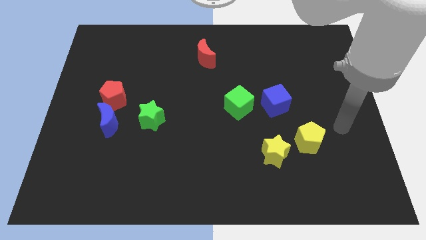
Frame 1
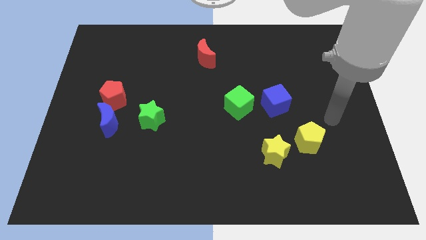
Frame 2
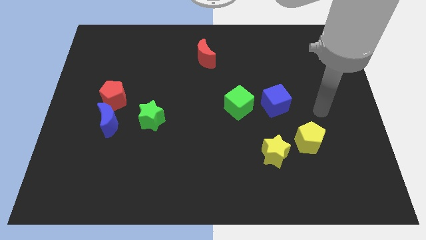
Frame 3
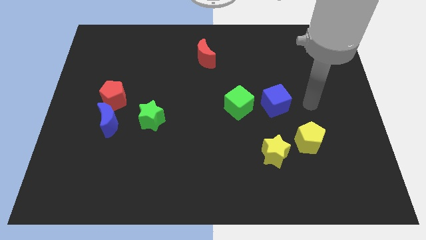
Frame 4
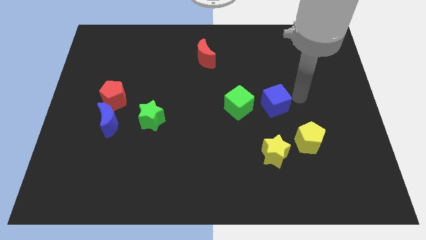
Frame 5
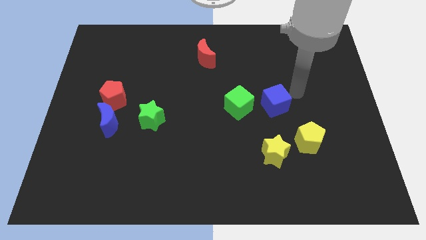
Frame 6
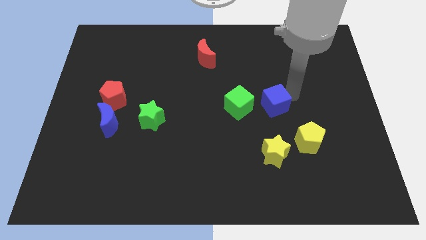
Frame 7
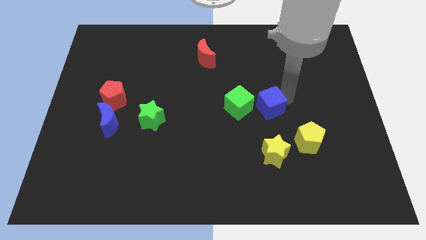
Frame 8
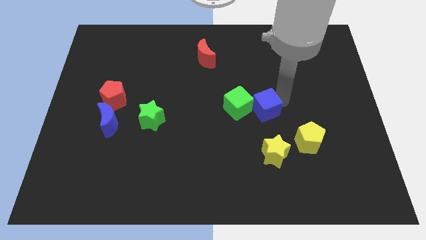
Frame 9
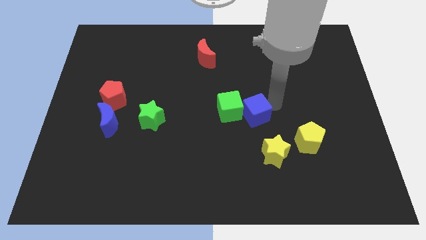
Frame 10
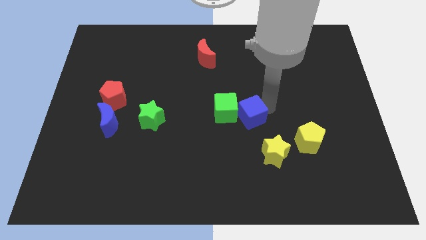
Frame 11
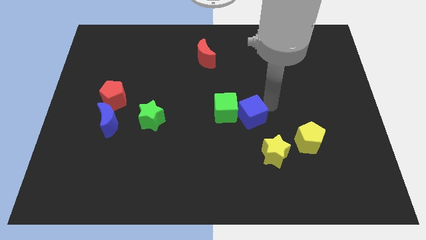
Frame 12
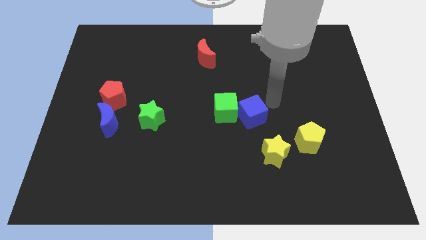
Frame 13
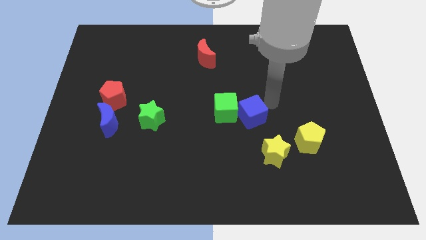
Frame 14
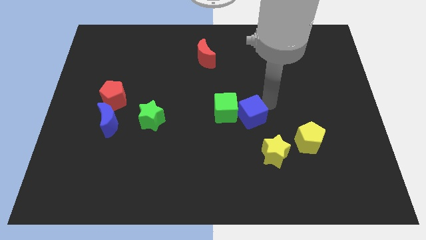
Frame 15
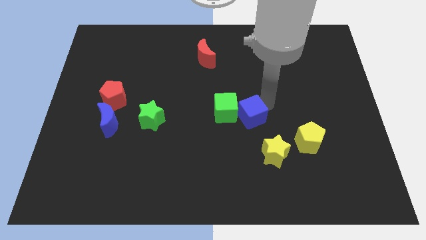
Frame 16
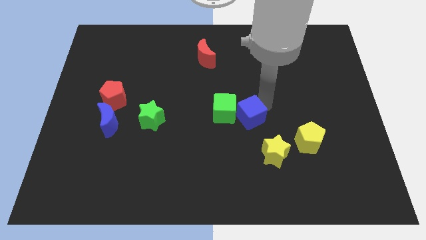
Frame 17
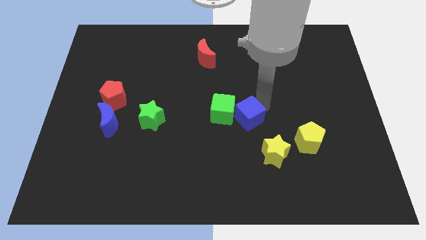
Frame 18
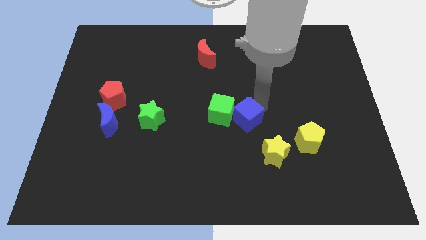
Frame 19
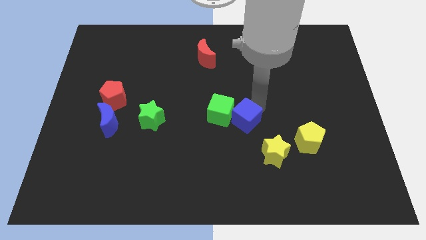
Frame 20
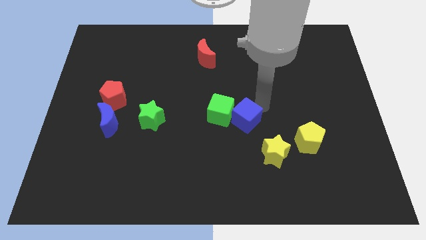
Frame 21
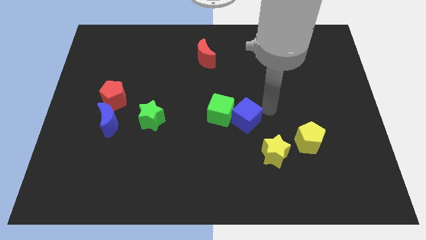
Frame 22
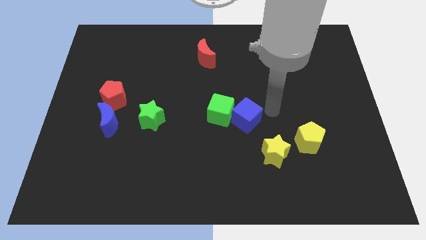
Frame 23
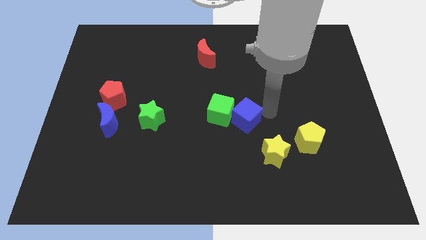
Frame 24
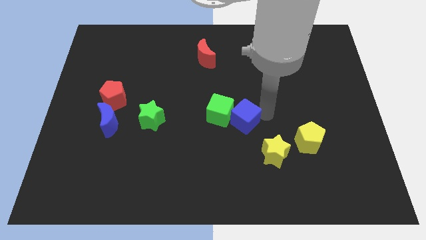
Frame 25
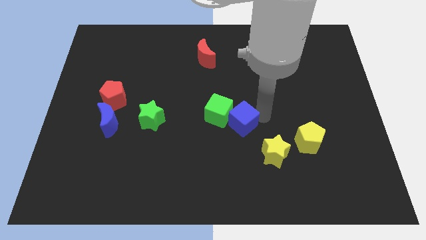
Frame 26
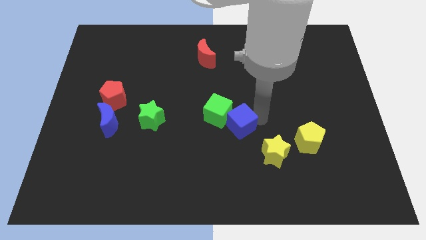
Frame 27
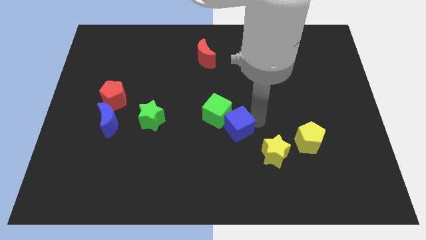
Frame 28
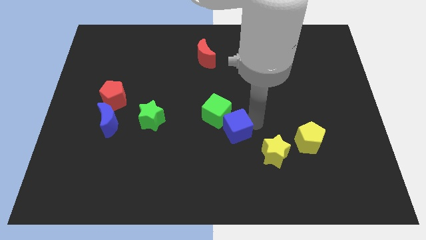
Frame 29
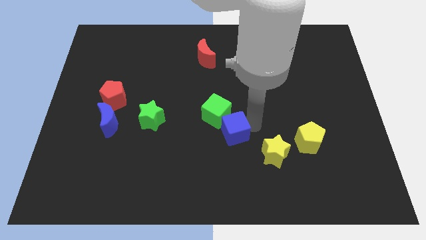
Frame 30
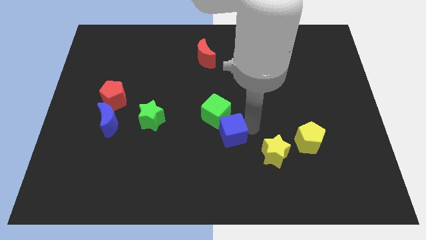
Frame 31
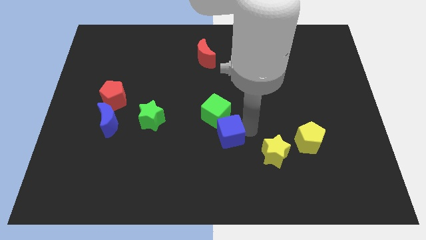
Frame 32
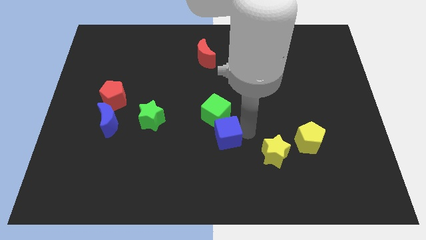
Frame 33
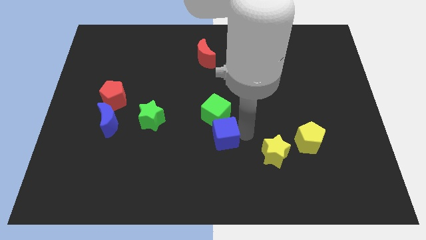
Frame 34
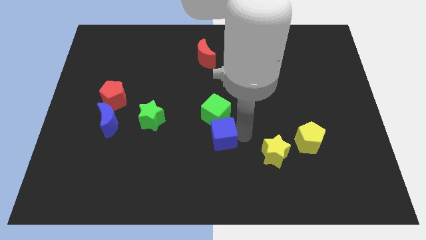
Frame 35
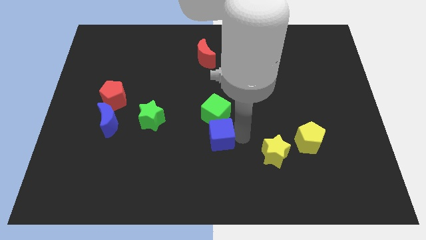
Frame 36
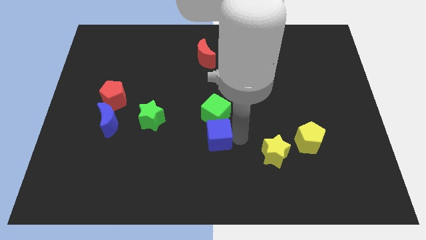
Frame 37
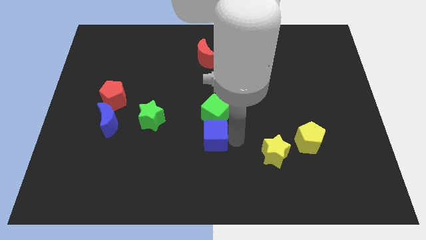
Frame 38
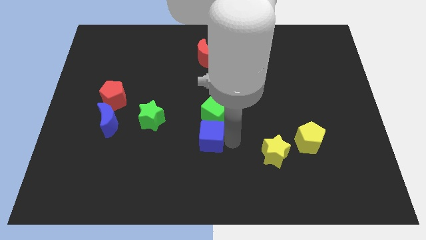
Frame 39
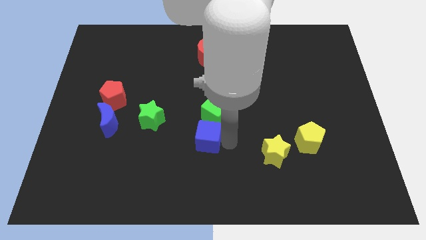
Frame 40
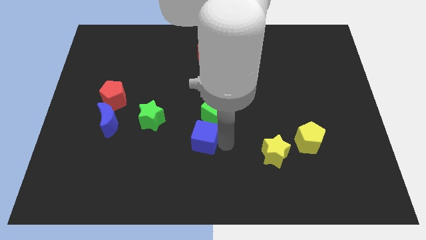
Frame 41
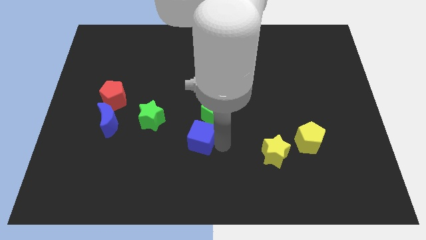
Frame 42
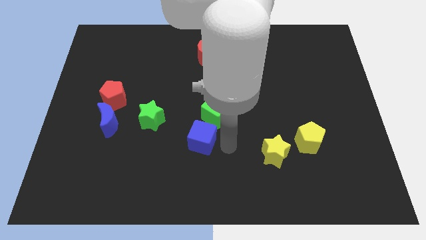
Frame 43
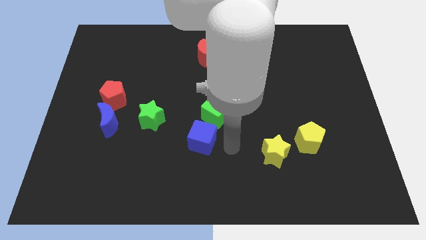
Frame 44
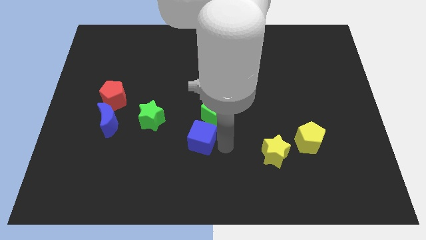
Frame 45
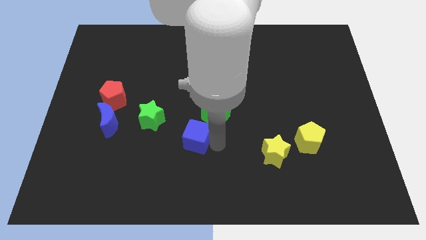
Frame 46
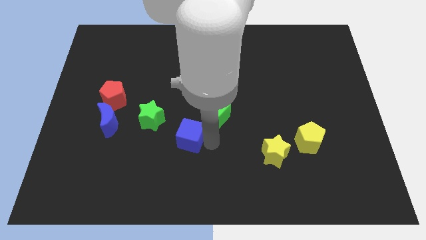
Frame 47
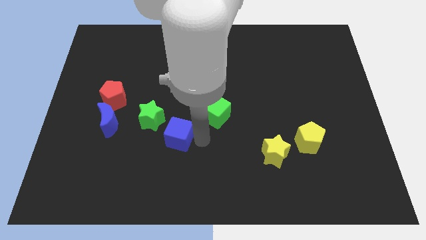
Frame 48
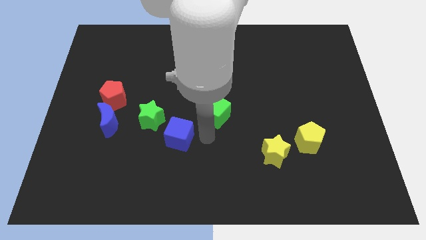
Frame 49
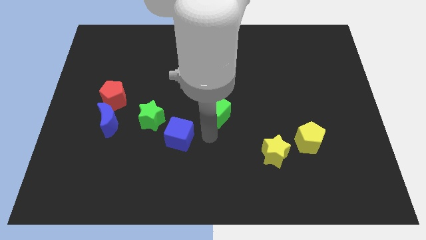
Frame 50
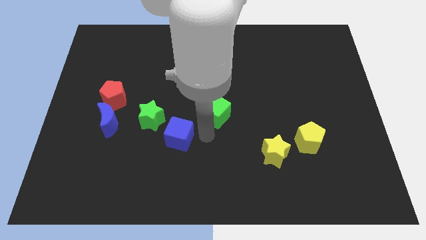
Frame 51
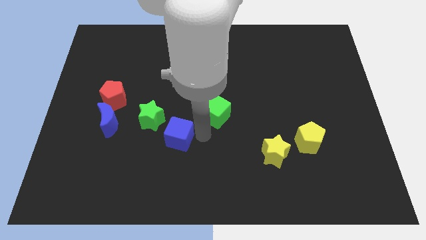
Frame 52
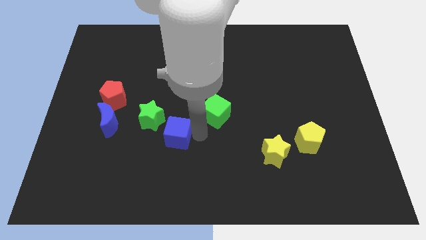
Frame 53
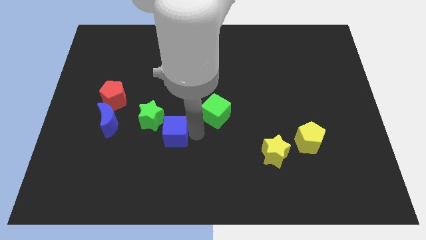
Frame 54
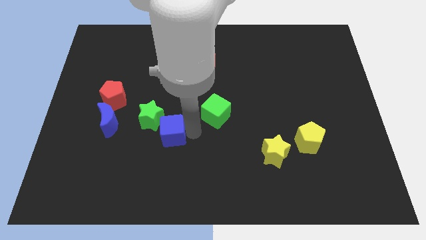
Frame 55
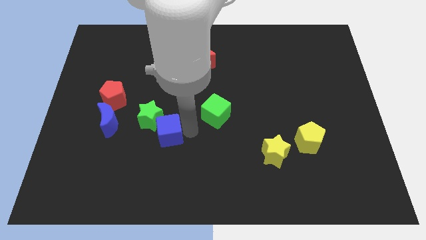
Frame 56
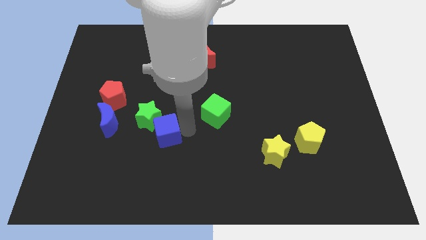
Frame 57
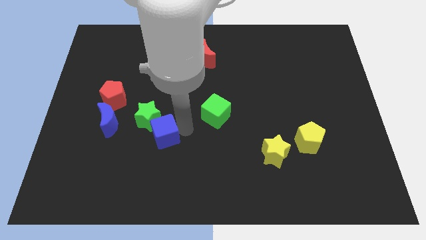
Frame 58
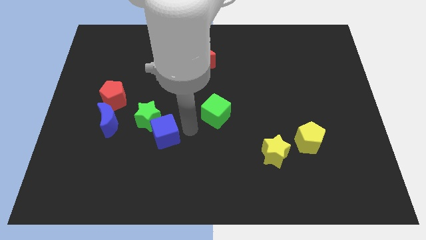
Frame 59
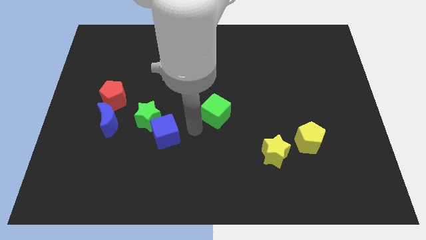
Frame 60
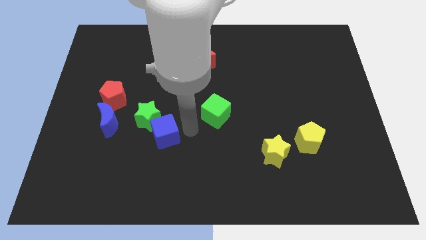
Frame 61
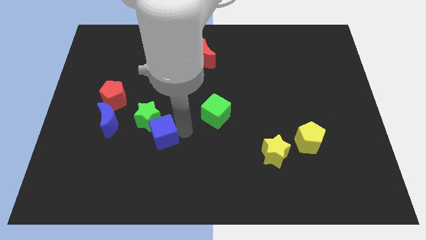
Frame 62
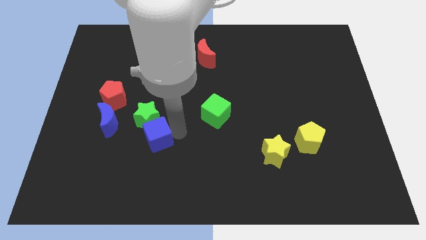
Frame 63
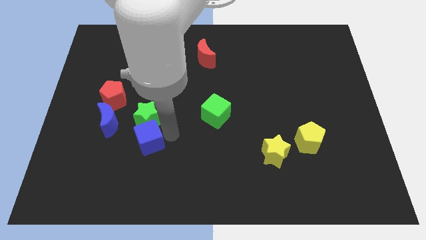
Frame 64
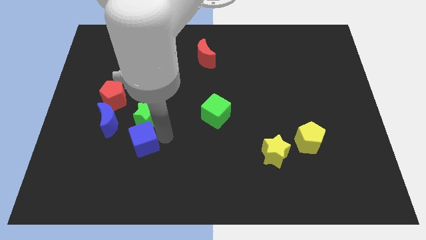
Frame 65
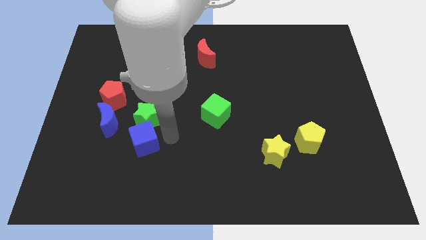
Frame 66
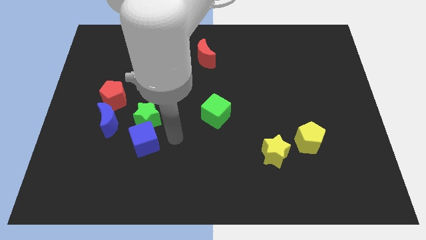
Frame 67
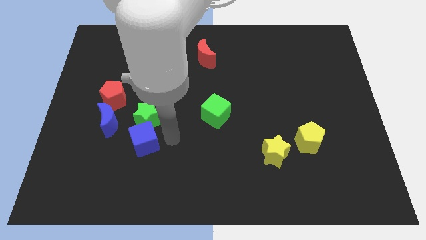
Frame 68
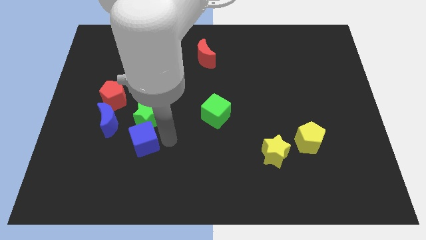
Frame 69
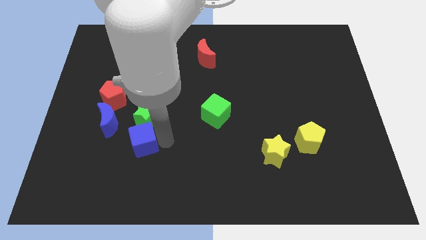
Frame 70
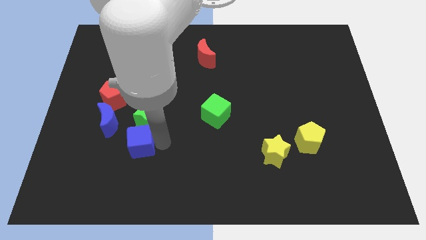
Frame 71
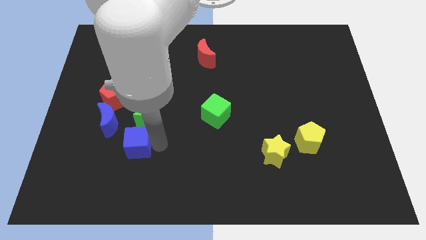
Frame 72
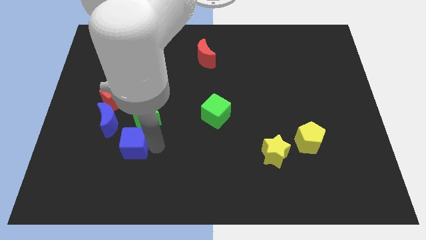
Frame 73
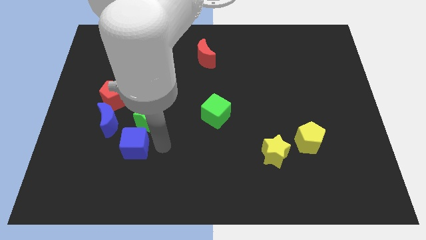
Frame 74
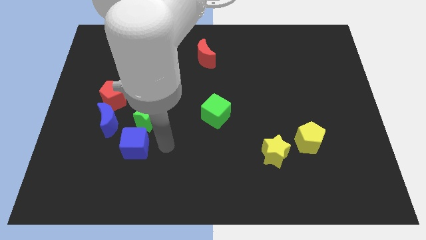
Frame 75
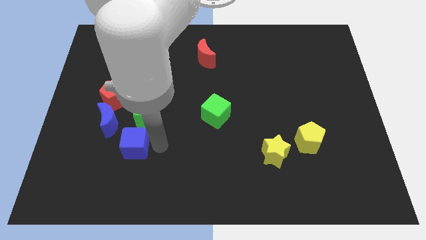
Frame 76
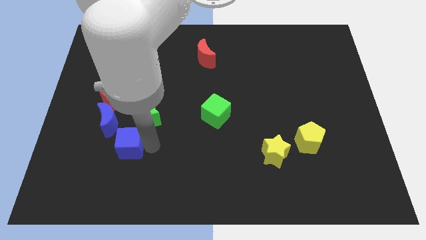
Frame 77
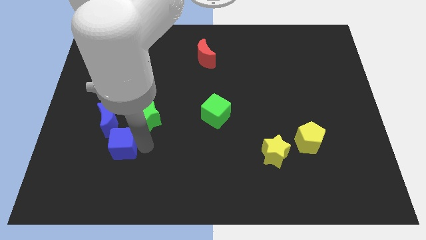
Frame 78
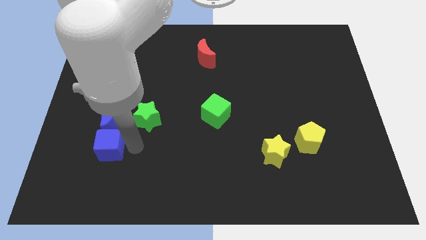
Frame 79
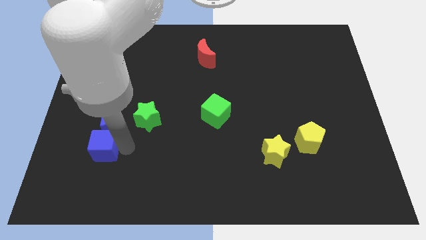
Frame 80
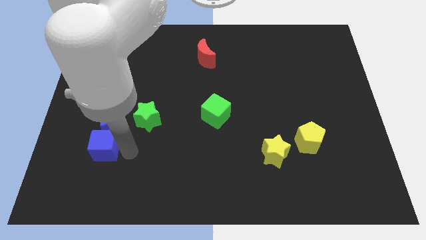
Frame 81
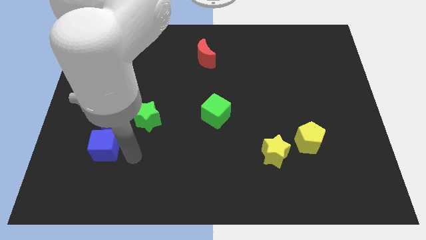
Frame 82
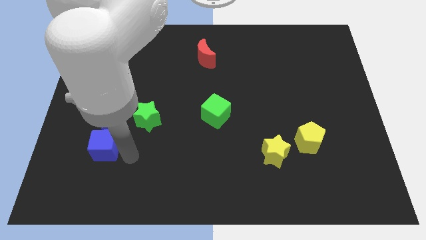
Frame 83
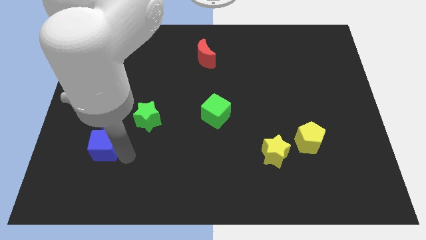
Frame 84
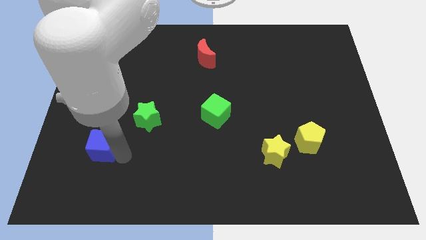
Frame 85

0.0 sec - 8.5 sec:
put the blue cube to the bottom left of the blue moon
